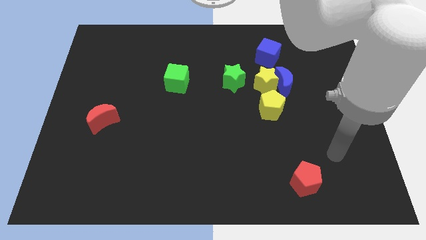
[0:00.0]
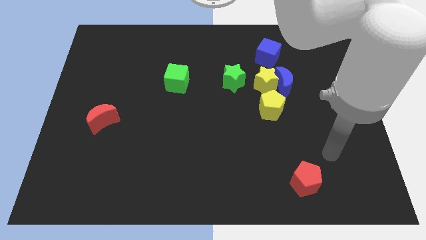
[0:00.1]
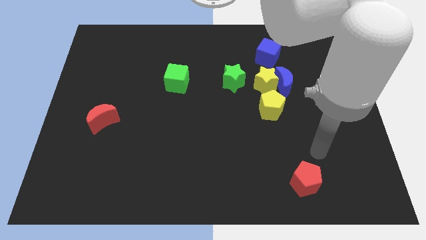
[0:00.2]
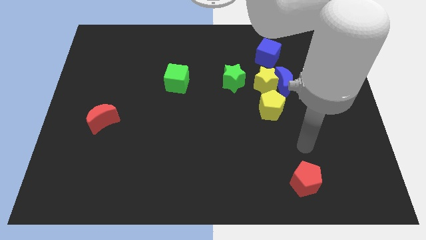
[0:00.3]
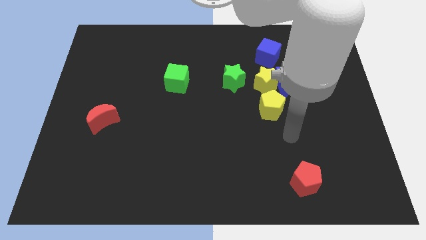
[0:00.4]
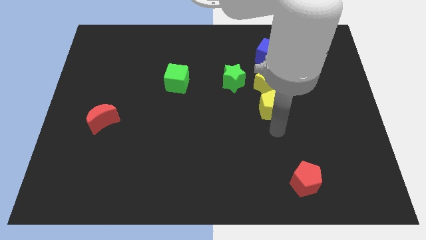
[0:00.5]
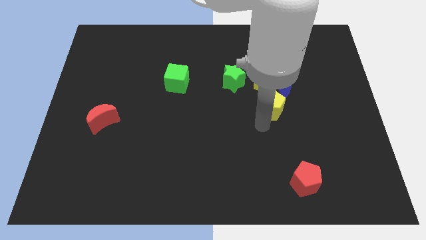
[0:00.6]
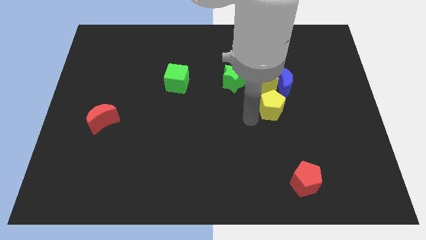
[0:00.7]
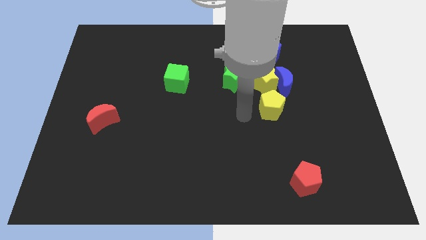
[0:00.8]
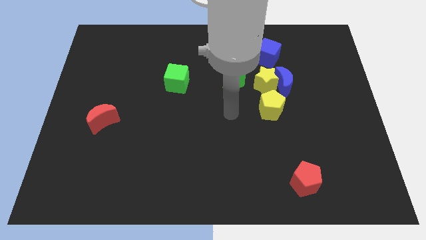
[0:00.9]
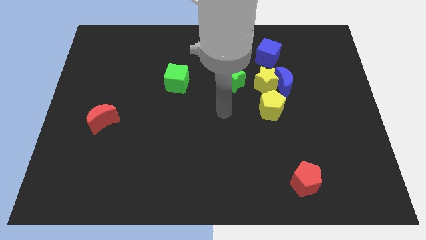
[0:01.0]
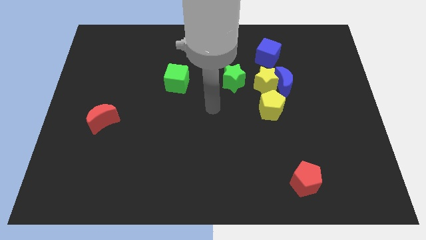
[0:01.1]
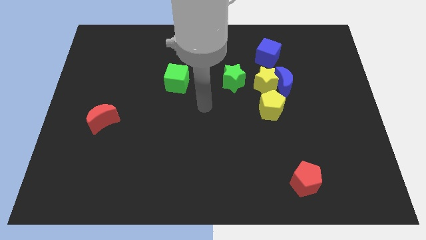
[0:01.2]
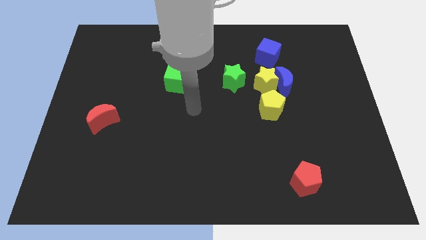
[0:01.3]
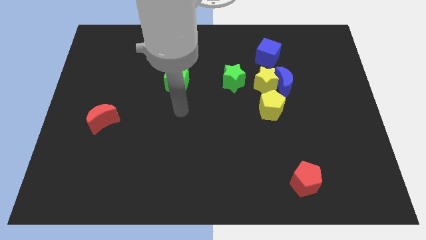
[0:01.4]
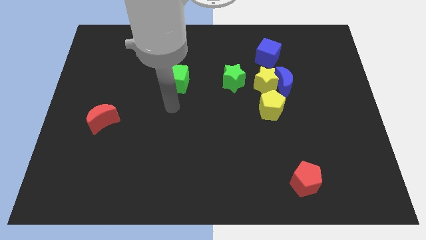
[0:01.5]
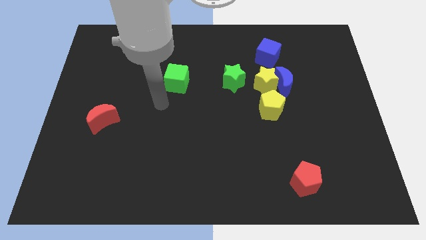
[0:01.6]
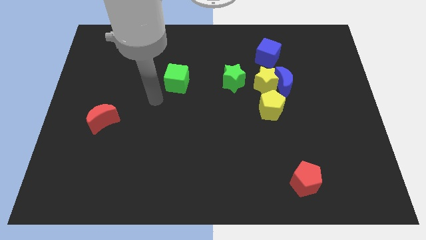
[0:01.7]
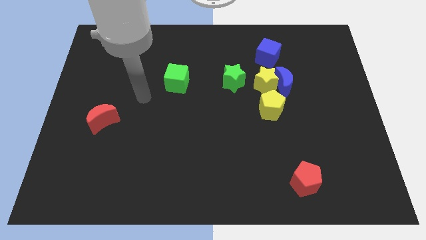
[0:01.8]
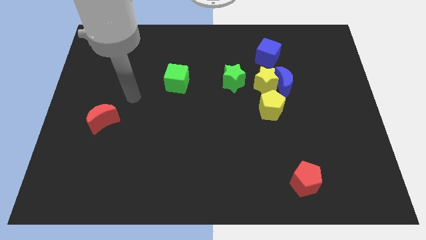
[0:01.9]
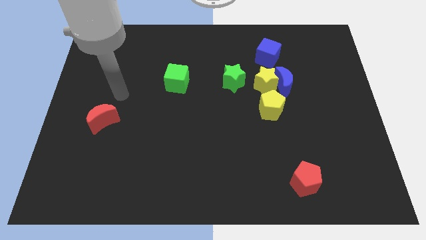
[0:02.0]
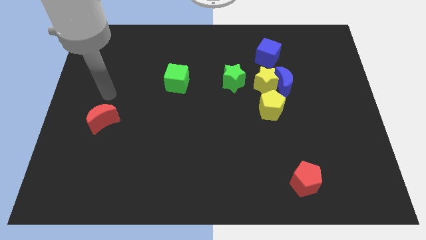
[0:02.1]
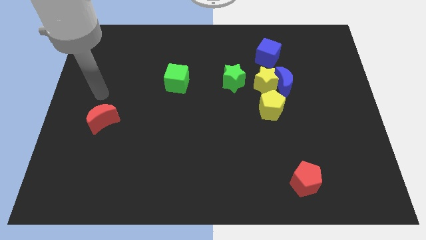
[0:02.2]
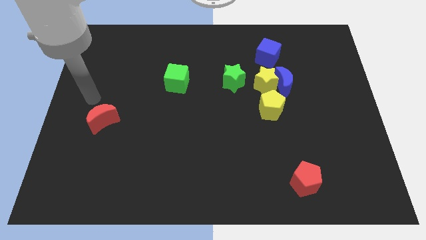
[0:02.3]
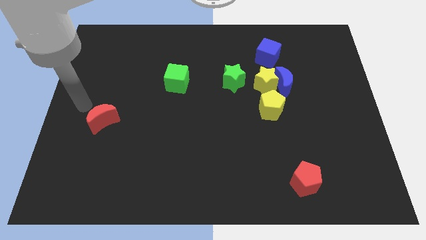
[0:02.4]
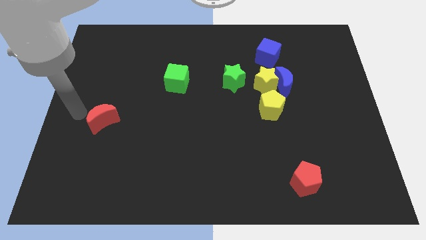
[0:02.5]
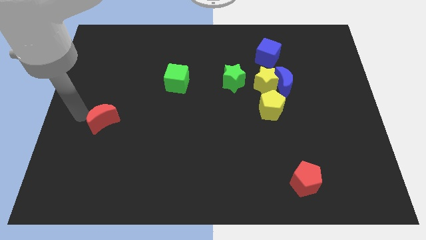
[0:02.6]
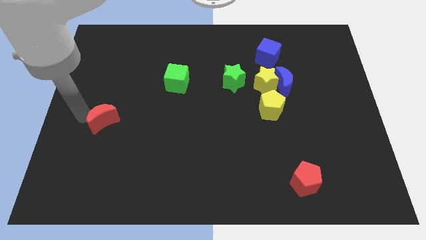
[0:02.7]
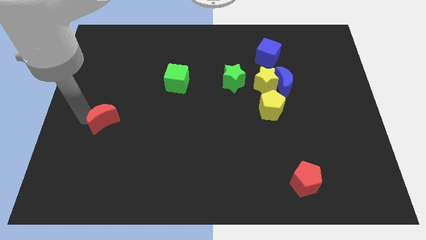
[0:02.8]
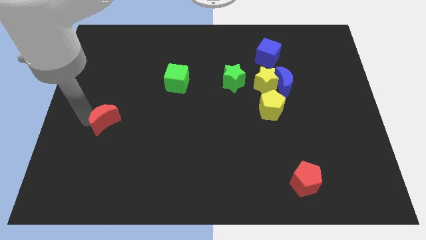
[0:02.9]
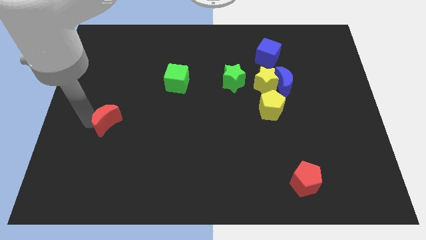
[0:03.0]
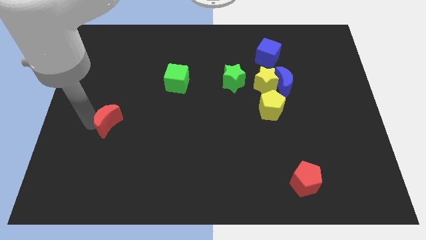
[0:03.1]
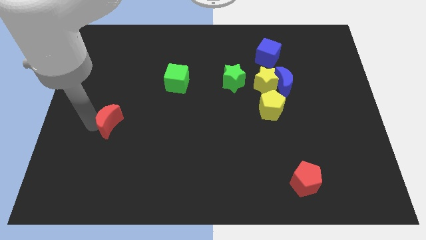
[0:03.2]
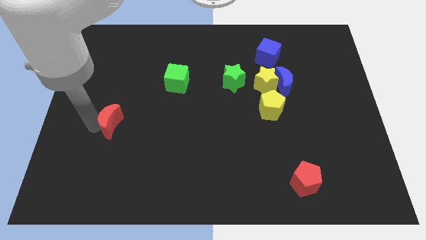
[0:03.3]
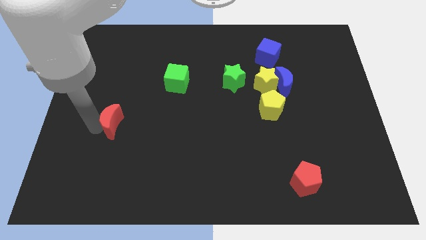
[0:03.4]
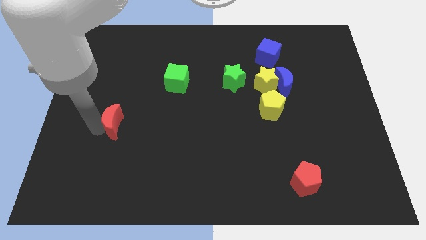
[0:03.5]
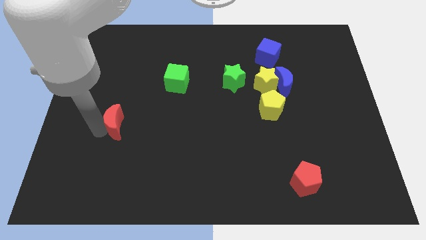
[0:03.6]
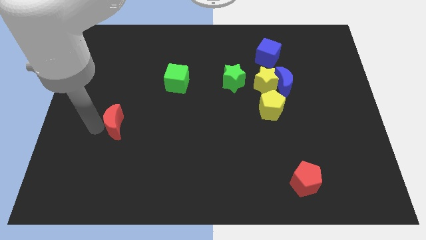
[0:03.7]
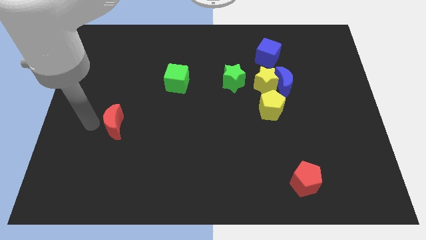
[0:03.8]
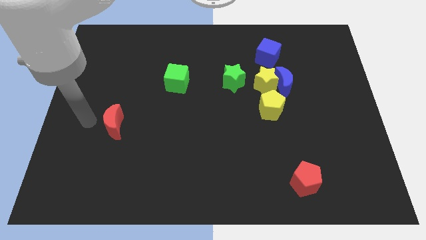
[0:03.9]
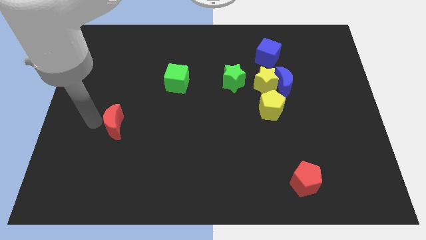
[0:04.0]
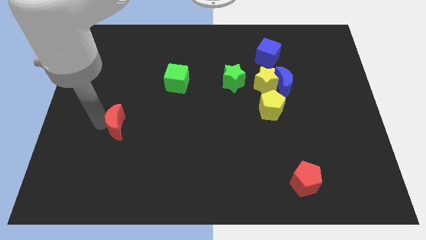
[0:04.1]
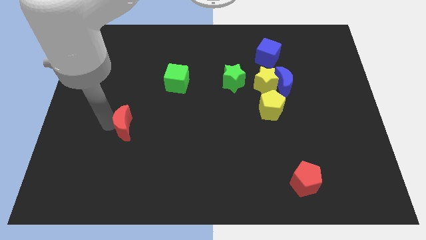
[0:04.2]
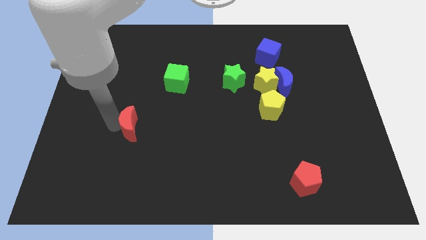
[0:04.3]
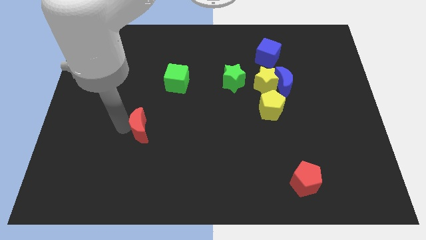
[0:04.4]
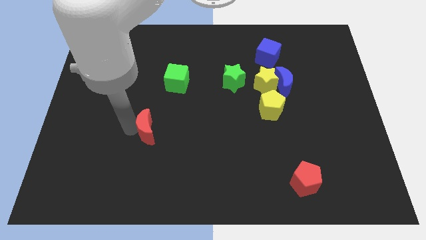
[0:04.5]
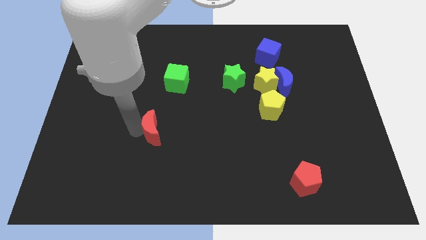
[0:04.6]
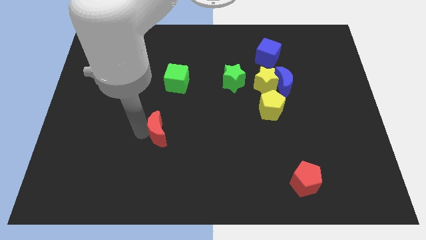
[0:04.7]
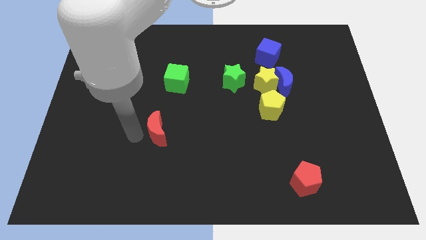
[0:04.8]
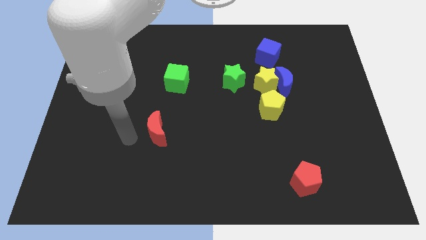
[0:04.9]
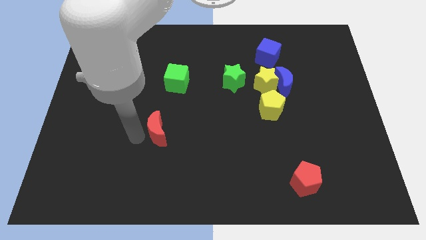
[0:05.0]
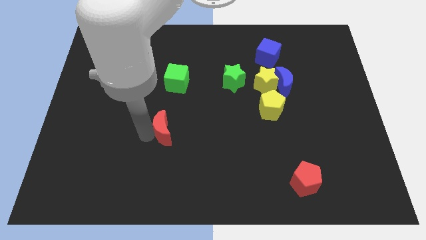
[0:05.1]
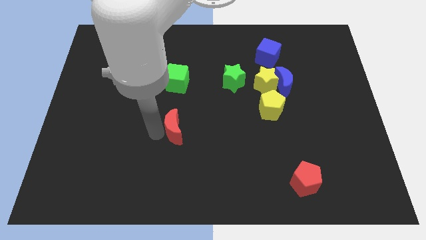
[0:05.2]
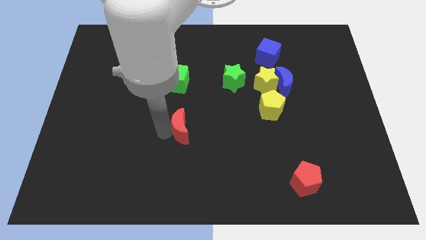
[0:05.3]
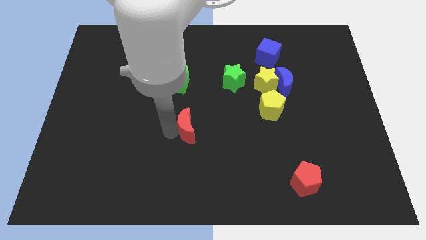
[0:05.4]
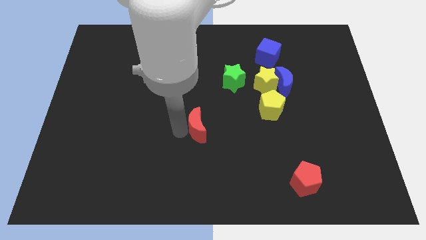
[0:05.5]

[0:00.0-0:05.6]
slide the red moon right

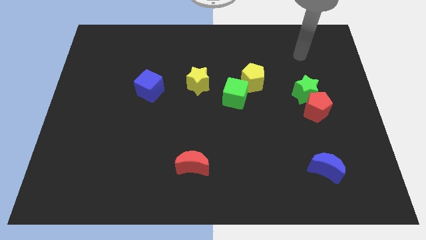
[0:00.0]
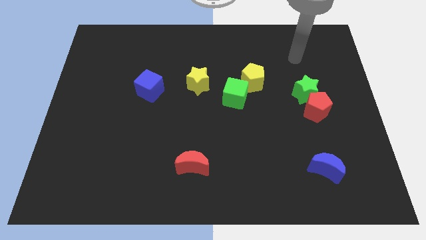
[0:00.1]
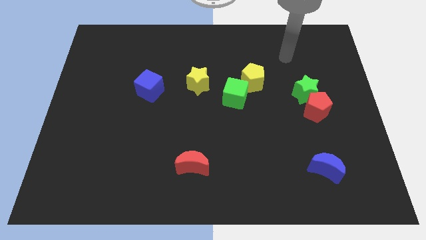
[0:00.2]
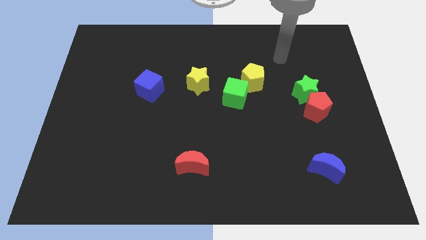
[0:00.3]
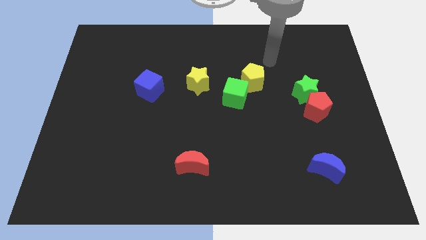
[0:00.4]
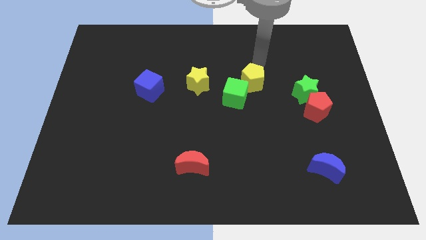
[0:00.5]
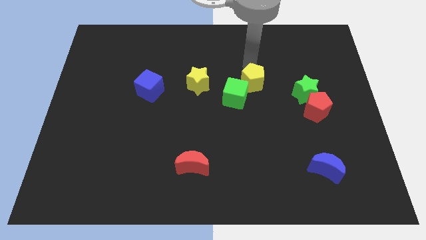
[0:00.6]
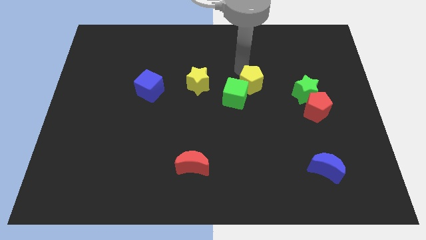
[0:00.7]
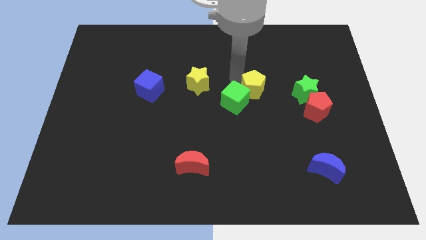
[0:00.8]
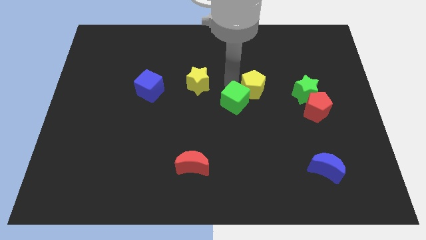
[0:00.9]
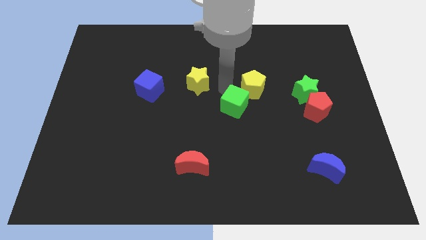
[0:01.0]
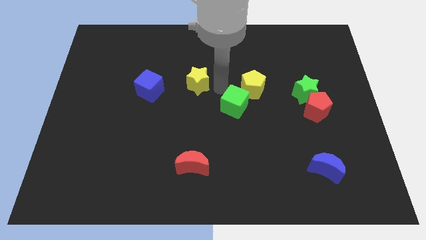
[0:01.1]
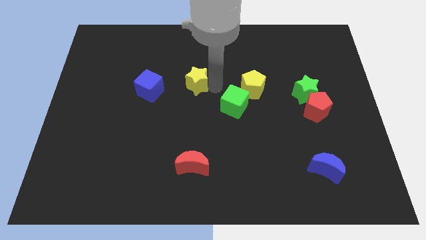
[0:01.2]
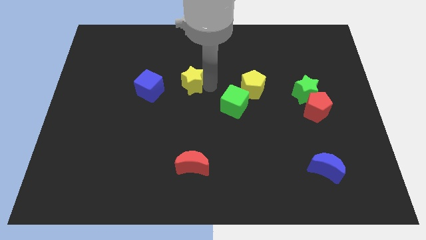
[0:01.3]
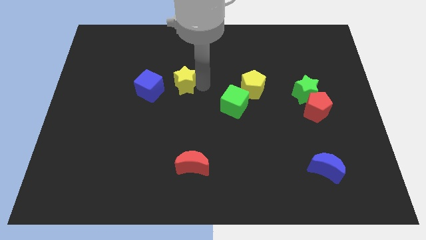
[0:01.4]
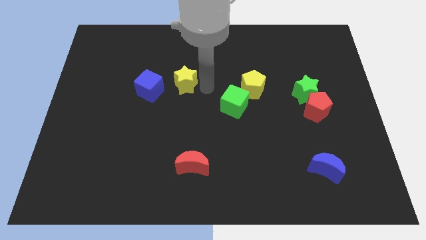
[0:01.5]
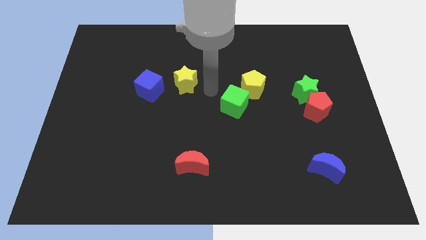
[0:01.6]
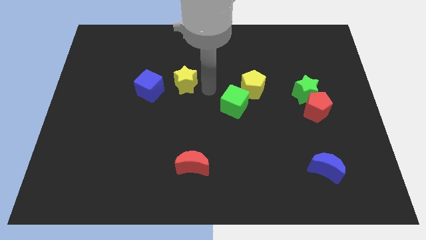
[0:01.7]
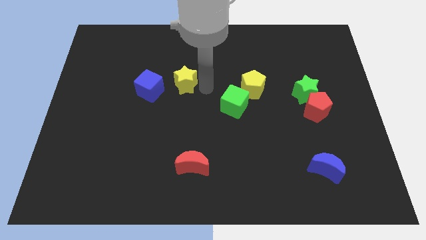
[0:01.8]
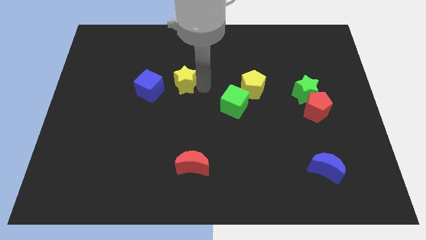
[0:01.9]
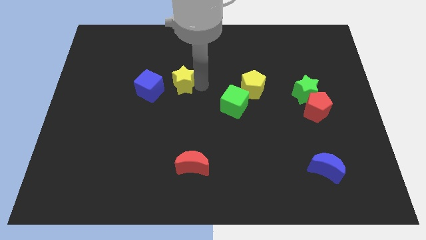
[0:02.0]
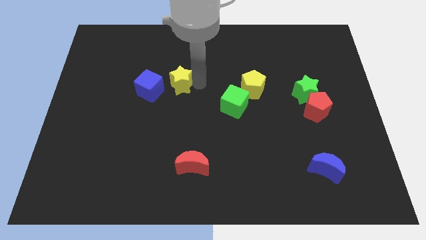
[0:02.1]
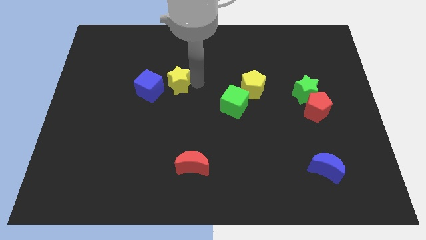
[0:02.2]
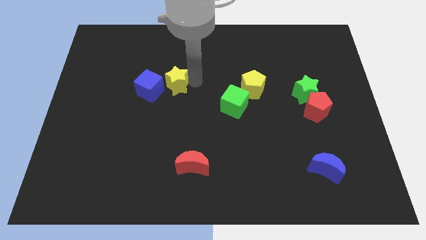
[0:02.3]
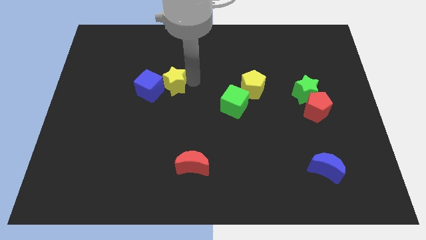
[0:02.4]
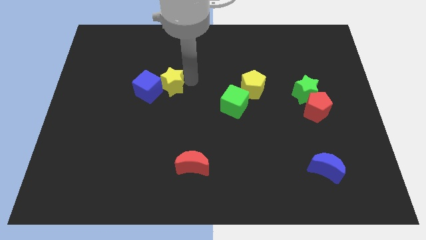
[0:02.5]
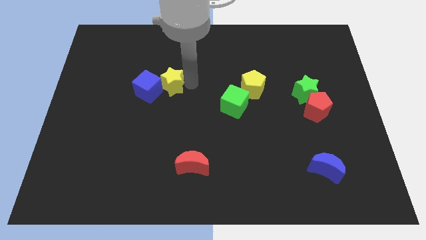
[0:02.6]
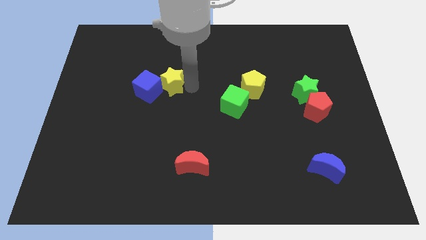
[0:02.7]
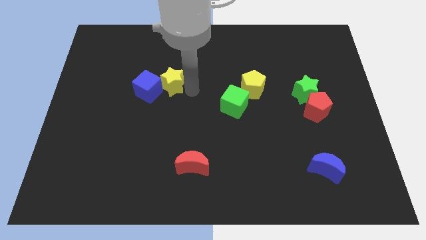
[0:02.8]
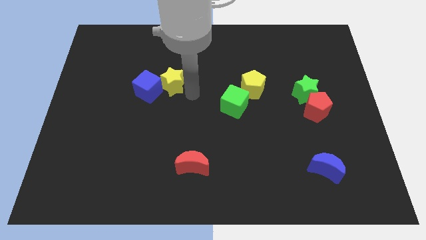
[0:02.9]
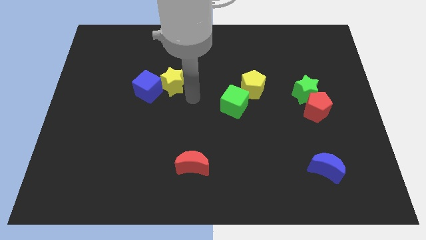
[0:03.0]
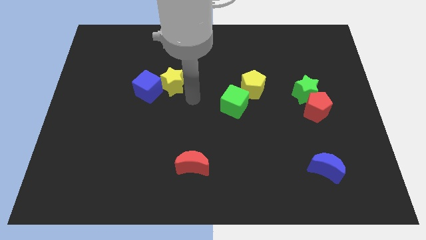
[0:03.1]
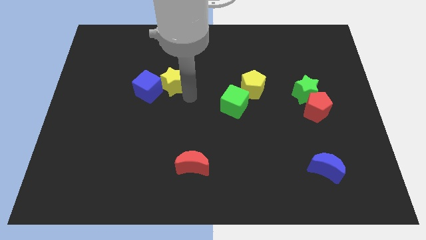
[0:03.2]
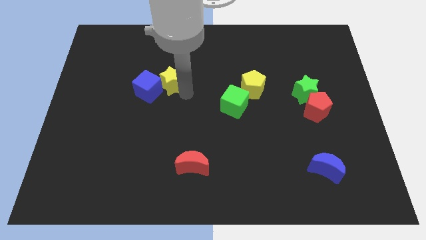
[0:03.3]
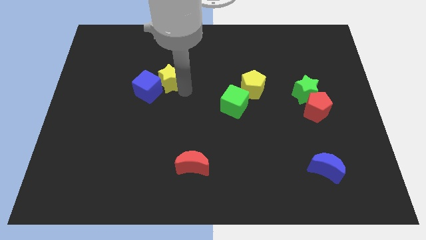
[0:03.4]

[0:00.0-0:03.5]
push the yellow star a little bit left
